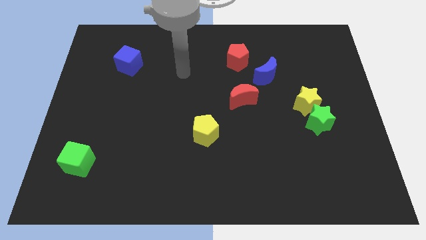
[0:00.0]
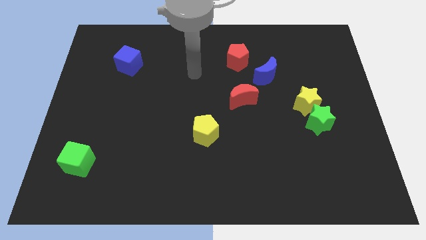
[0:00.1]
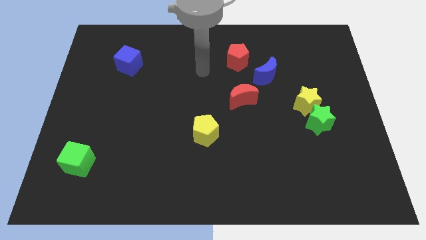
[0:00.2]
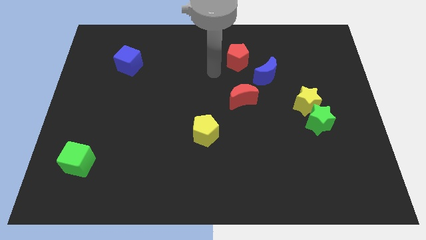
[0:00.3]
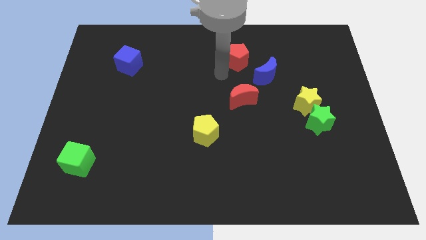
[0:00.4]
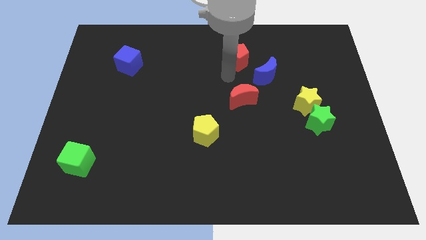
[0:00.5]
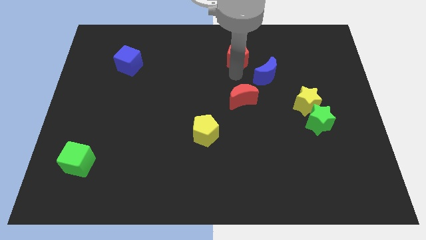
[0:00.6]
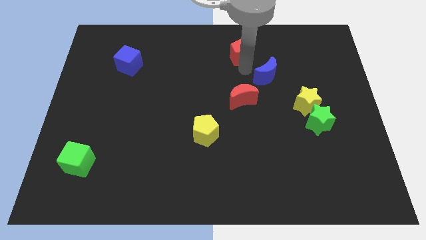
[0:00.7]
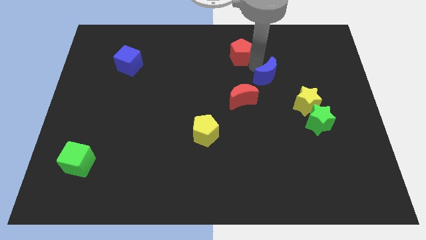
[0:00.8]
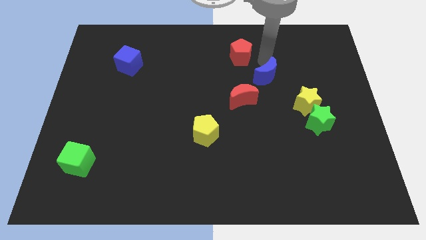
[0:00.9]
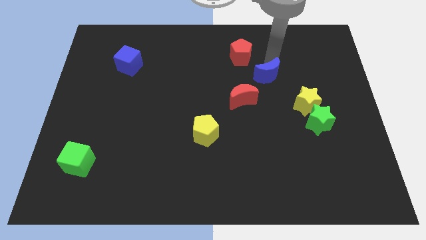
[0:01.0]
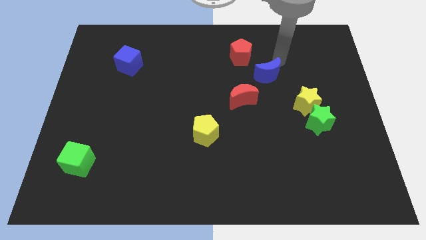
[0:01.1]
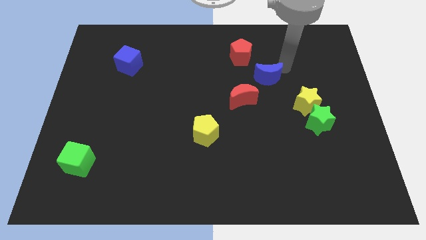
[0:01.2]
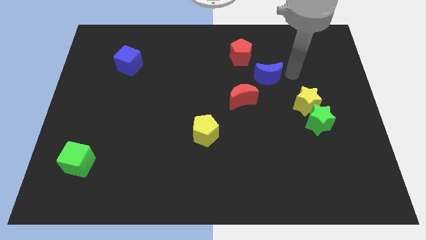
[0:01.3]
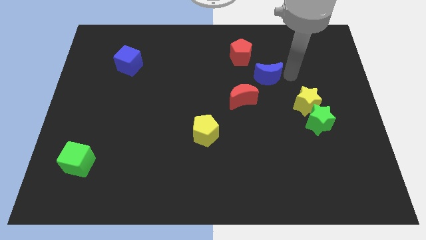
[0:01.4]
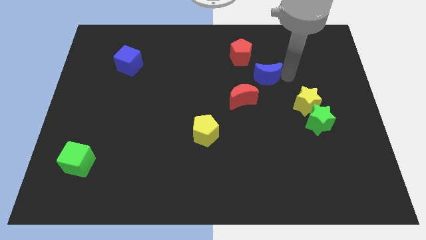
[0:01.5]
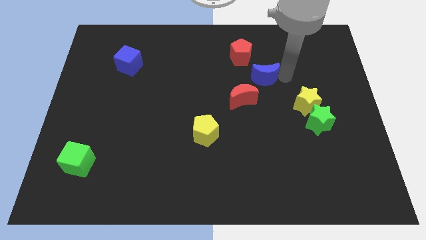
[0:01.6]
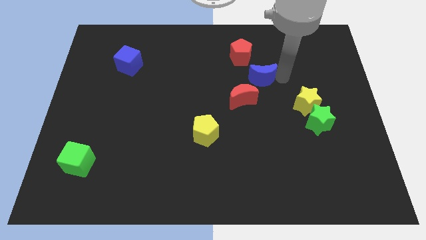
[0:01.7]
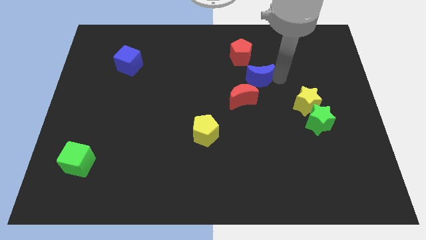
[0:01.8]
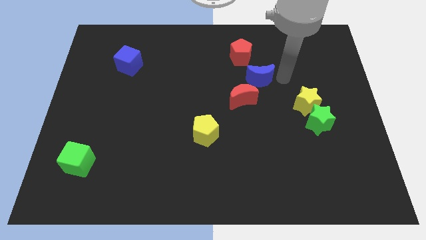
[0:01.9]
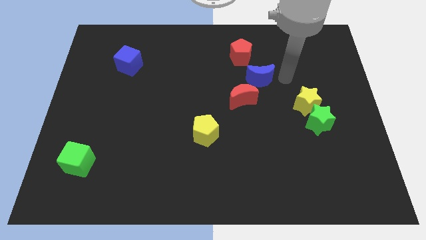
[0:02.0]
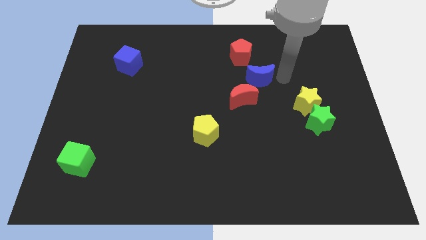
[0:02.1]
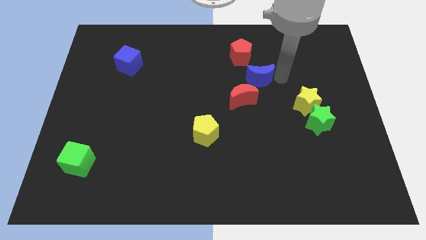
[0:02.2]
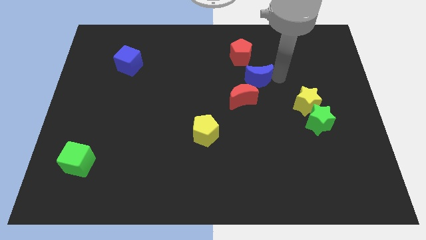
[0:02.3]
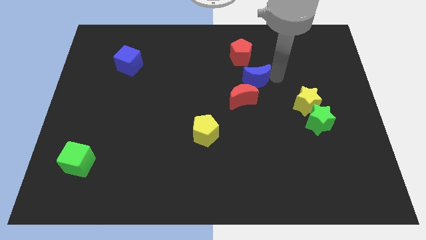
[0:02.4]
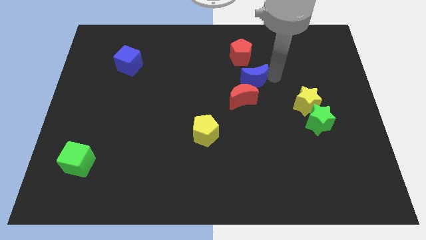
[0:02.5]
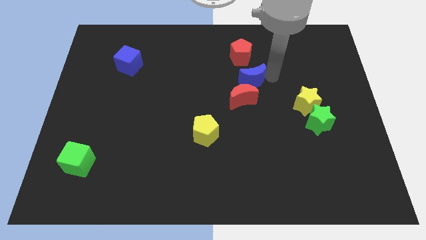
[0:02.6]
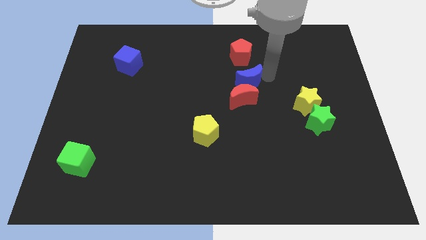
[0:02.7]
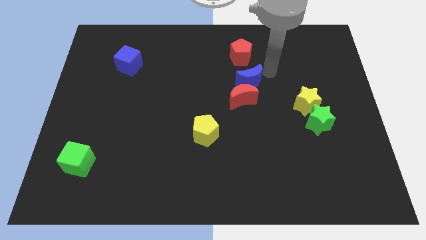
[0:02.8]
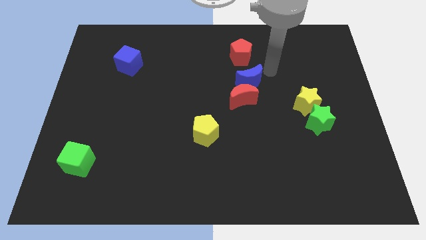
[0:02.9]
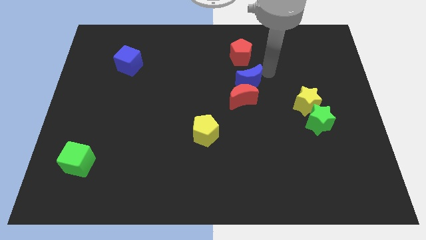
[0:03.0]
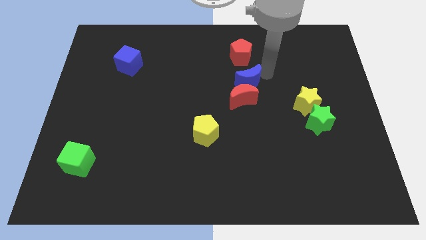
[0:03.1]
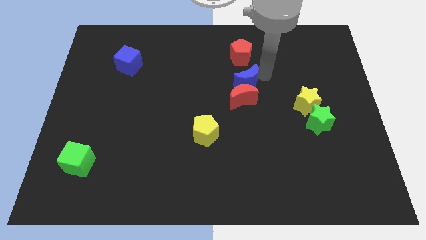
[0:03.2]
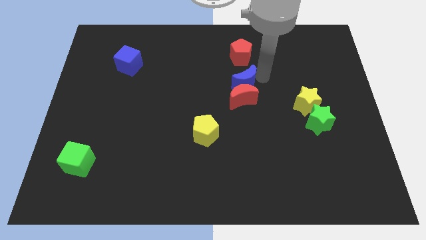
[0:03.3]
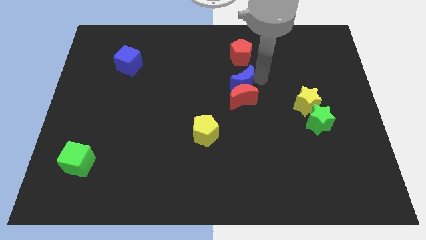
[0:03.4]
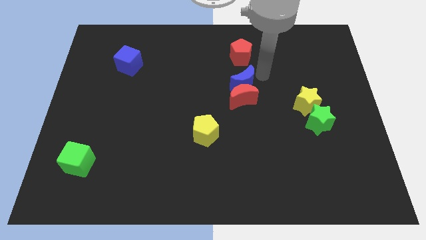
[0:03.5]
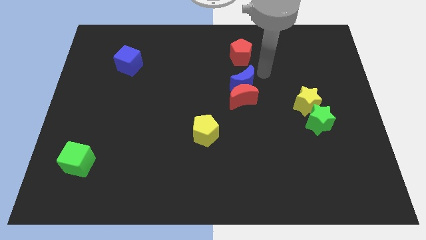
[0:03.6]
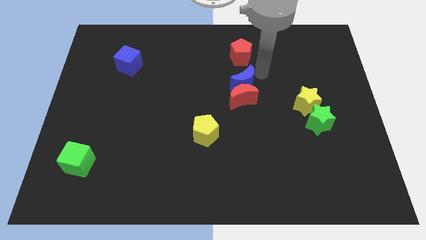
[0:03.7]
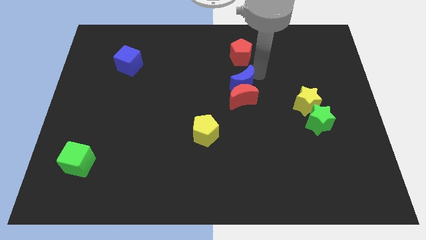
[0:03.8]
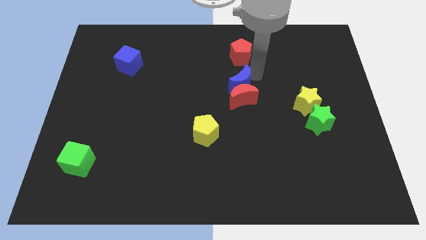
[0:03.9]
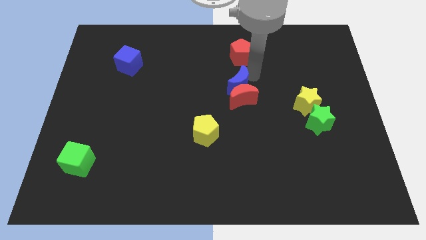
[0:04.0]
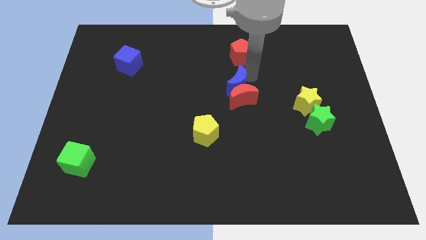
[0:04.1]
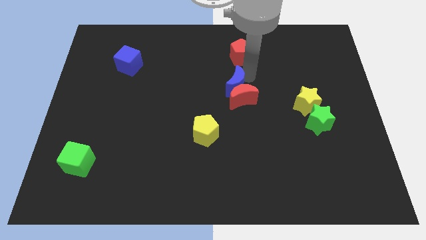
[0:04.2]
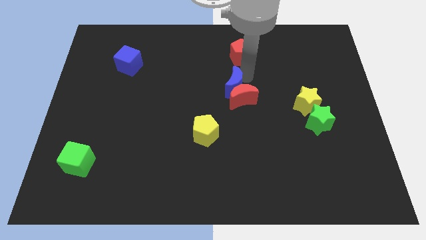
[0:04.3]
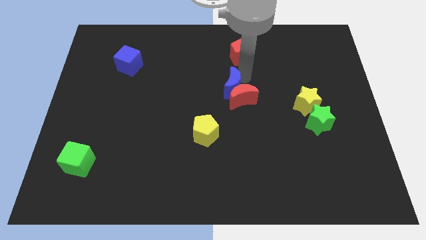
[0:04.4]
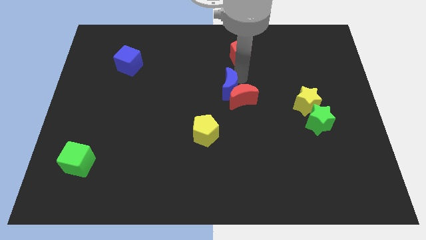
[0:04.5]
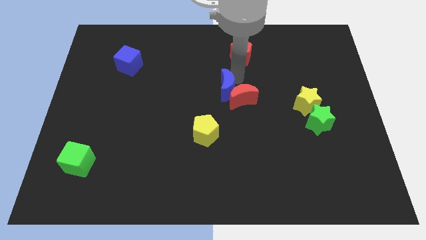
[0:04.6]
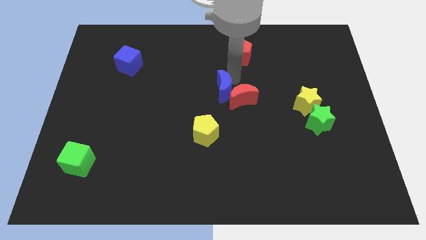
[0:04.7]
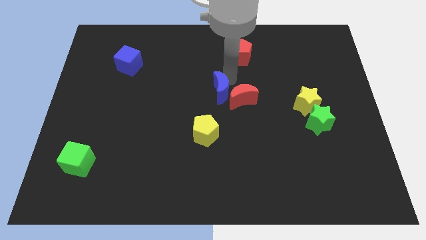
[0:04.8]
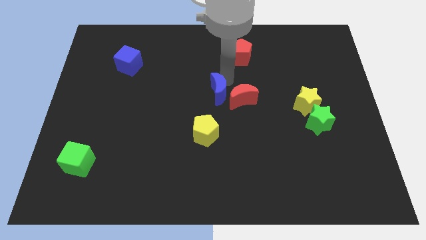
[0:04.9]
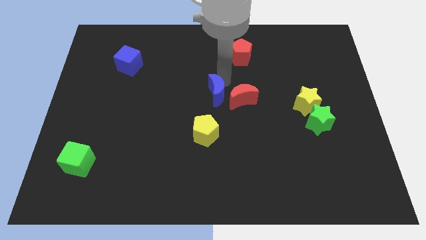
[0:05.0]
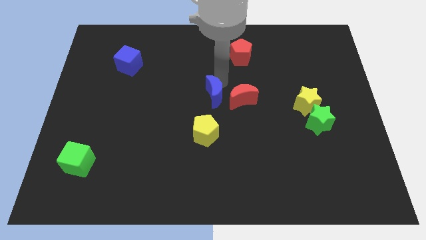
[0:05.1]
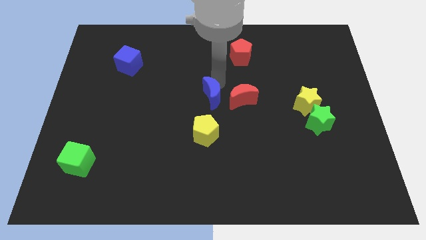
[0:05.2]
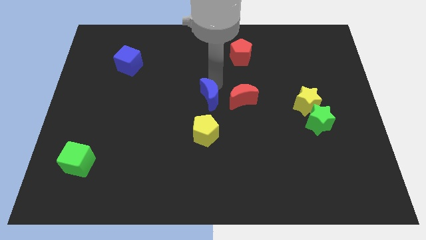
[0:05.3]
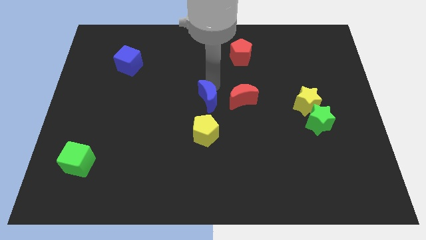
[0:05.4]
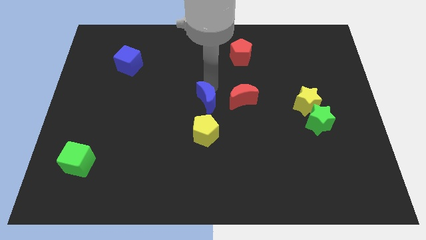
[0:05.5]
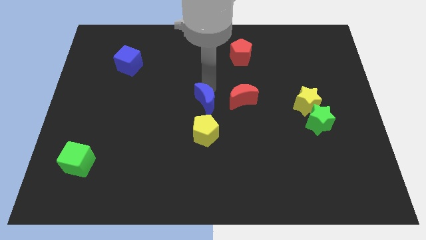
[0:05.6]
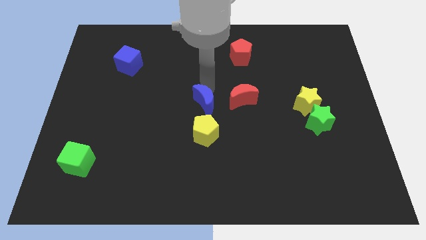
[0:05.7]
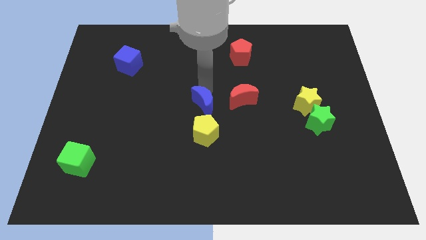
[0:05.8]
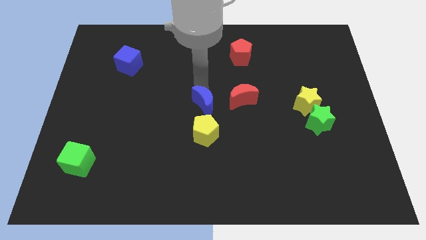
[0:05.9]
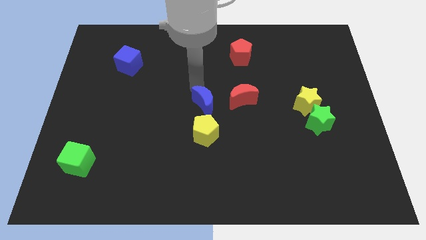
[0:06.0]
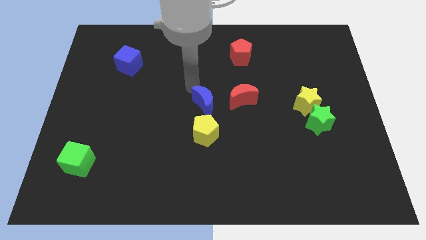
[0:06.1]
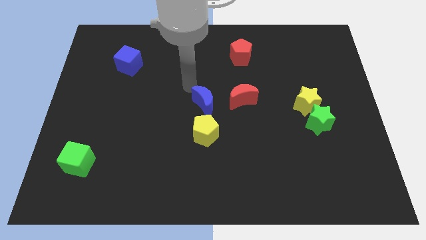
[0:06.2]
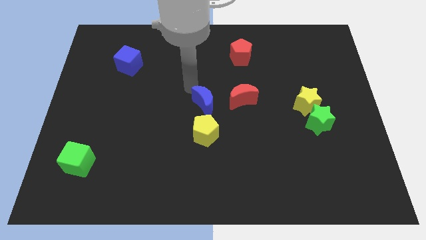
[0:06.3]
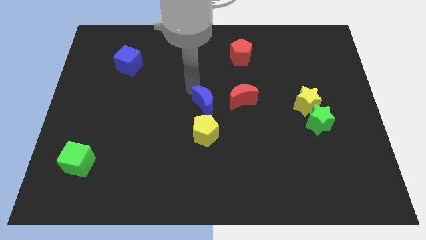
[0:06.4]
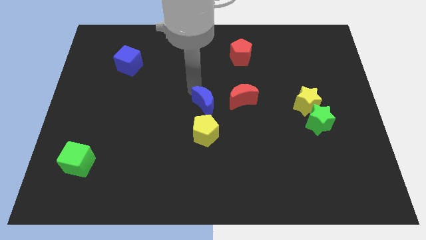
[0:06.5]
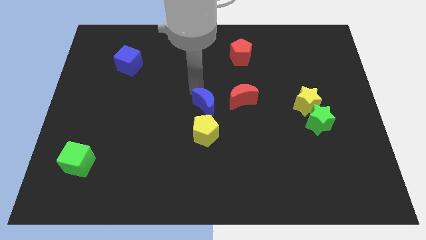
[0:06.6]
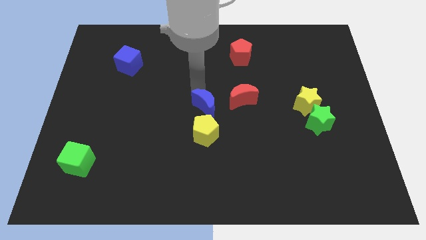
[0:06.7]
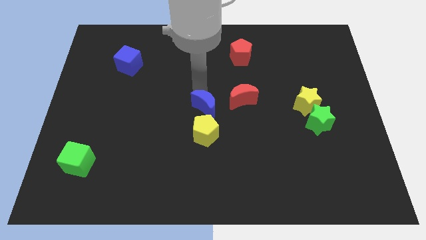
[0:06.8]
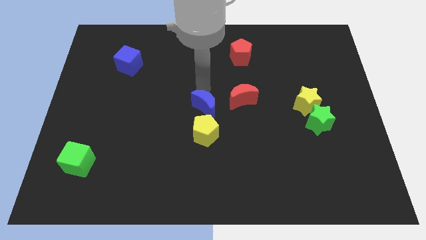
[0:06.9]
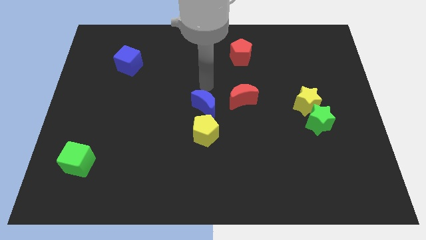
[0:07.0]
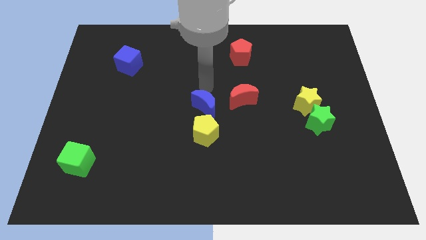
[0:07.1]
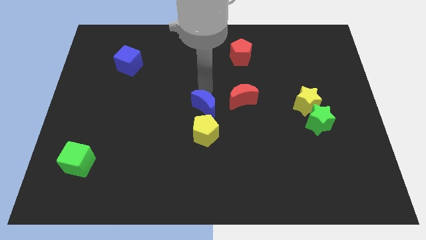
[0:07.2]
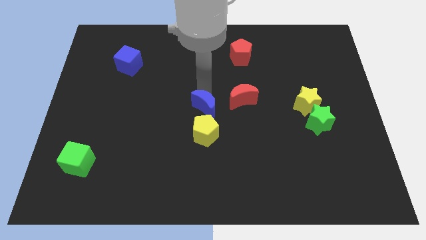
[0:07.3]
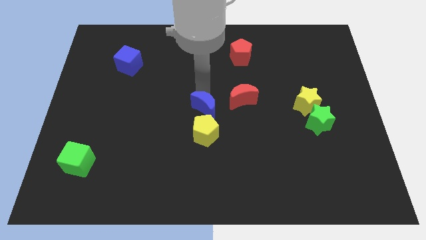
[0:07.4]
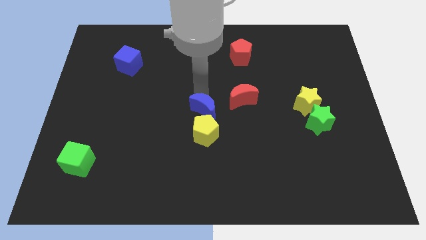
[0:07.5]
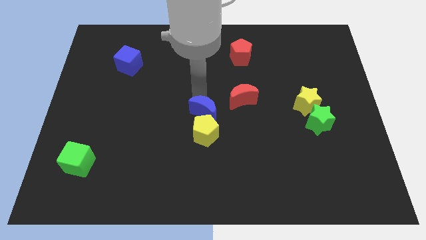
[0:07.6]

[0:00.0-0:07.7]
push the blue moon to the yellow pentagon

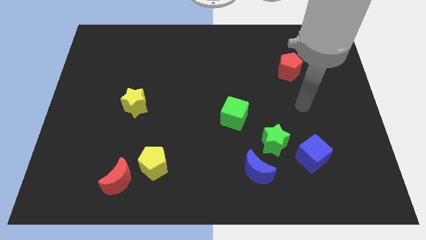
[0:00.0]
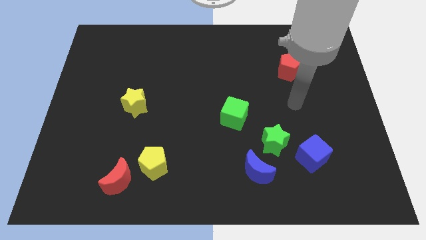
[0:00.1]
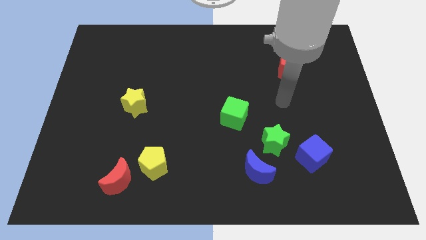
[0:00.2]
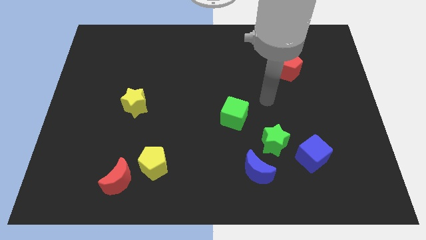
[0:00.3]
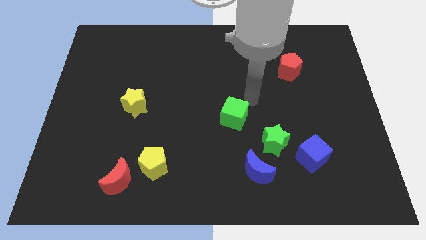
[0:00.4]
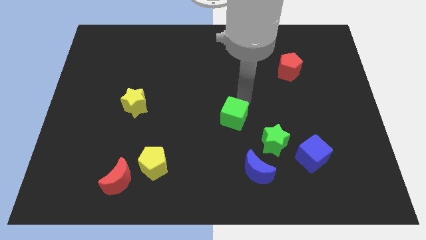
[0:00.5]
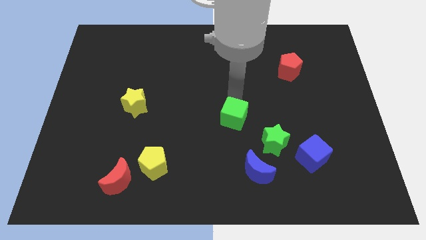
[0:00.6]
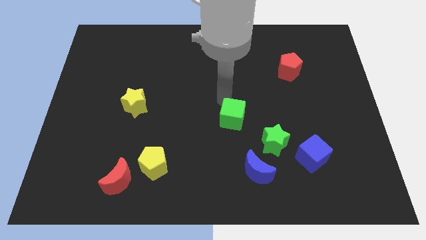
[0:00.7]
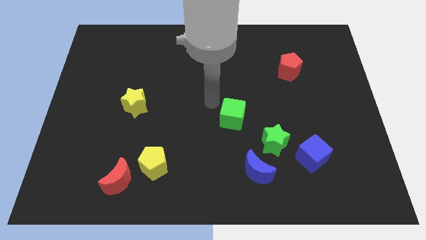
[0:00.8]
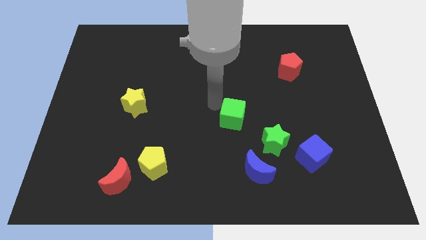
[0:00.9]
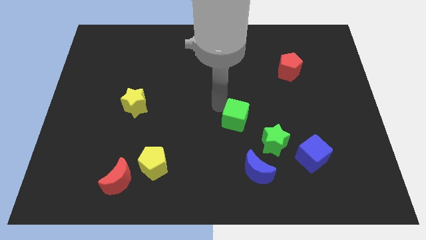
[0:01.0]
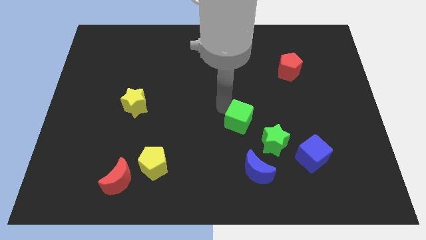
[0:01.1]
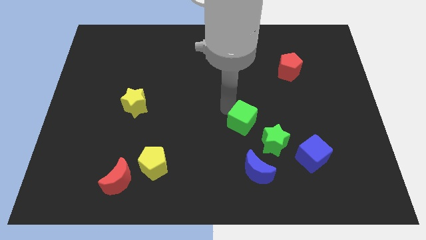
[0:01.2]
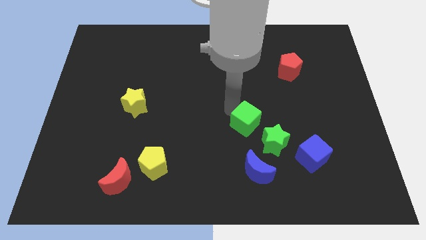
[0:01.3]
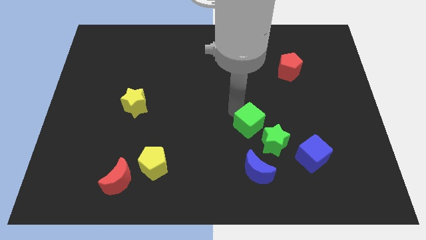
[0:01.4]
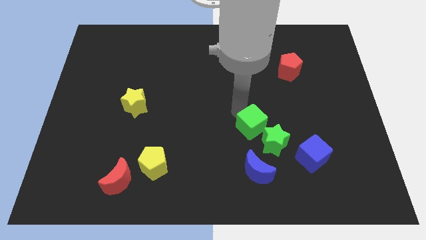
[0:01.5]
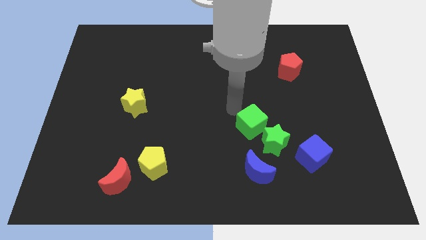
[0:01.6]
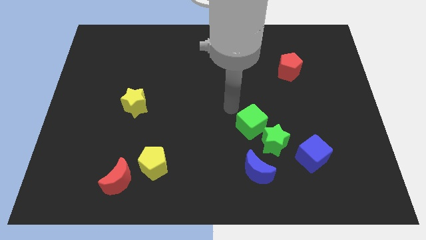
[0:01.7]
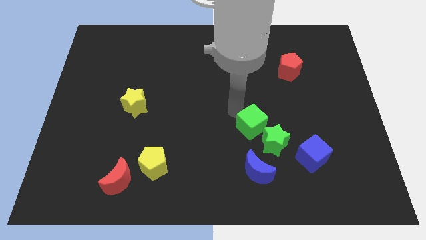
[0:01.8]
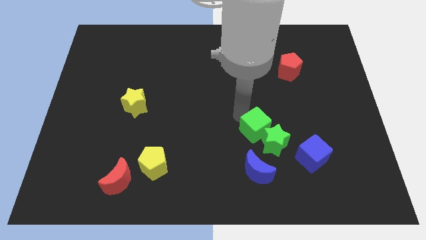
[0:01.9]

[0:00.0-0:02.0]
slide the green cube to the green star
